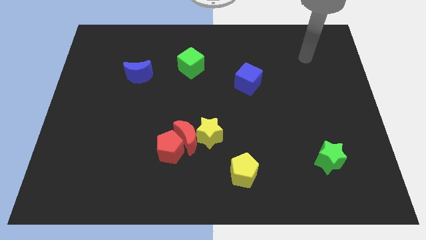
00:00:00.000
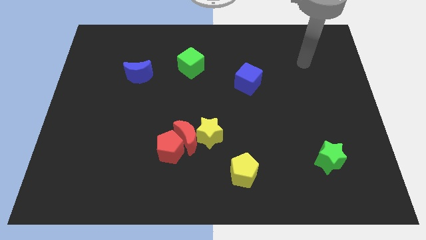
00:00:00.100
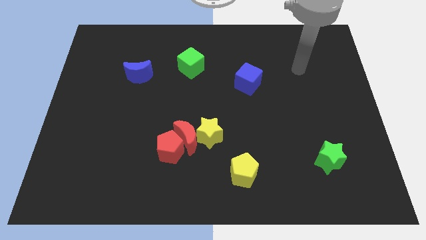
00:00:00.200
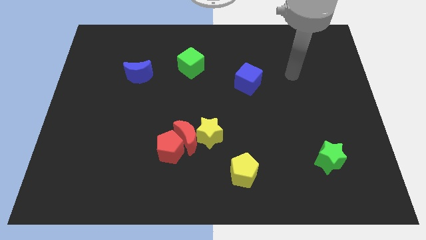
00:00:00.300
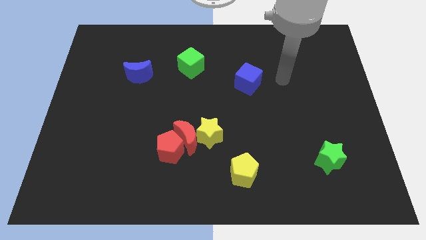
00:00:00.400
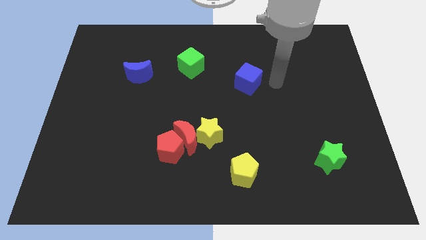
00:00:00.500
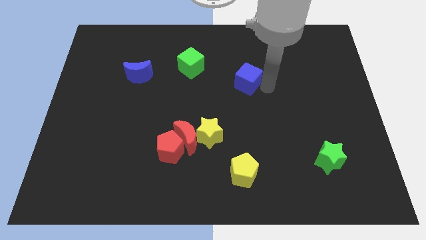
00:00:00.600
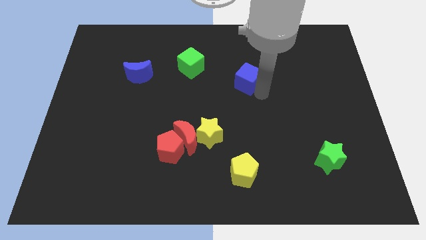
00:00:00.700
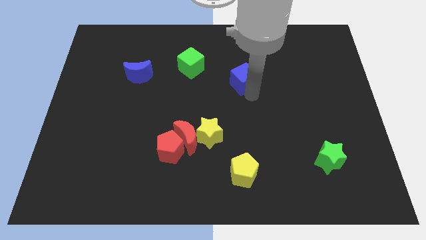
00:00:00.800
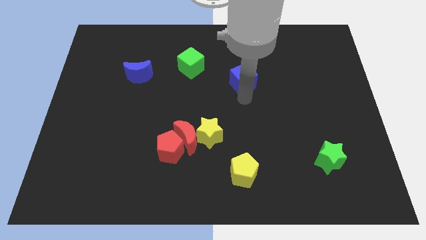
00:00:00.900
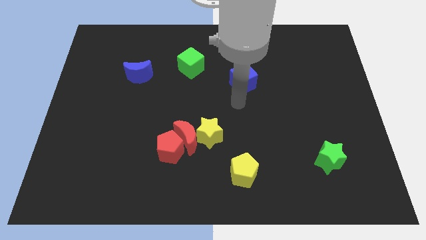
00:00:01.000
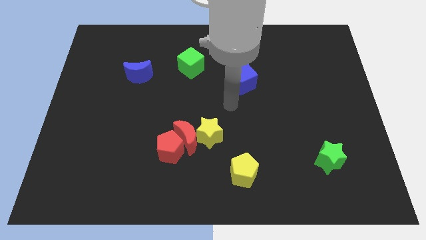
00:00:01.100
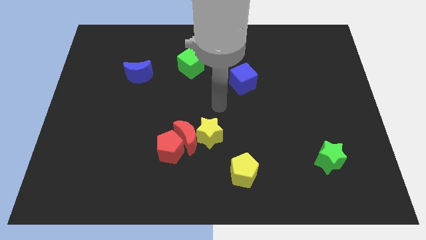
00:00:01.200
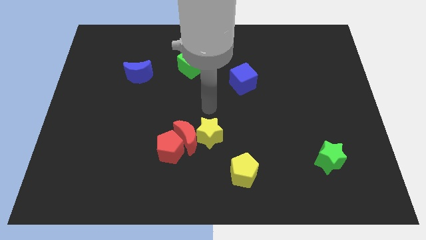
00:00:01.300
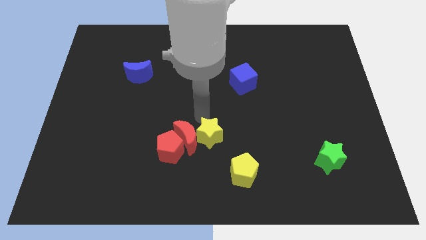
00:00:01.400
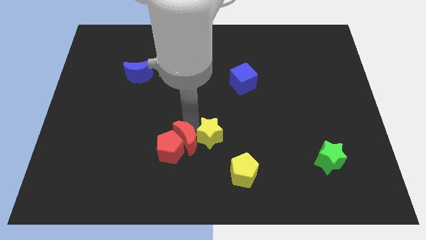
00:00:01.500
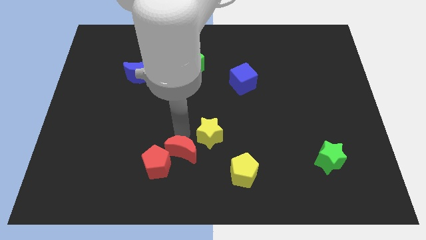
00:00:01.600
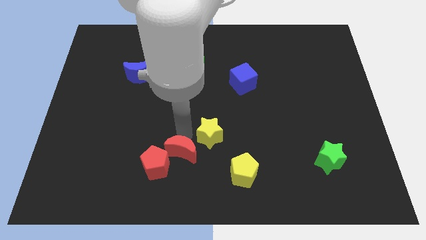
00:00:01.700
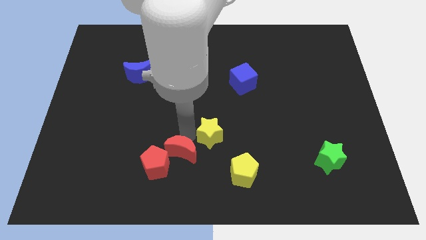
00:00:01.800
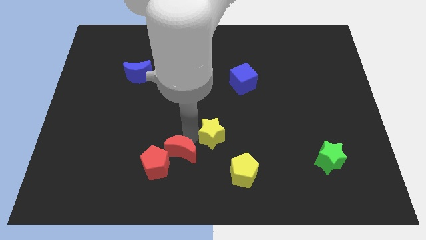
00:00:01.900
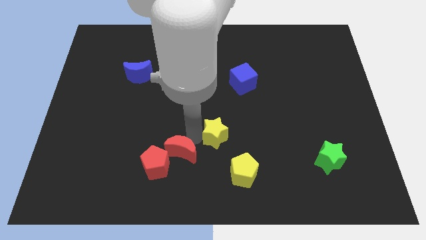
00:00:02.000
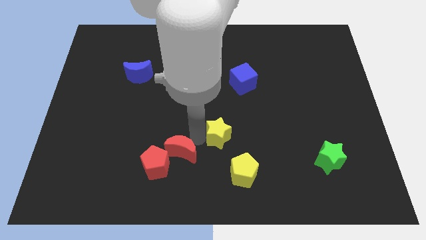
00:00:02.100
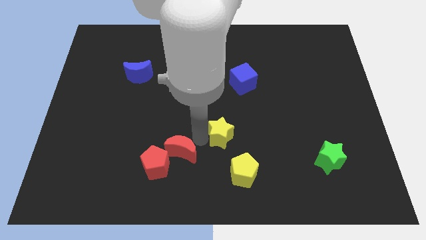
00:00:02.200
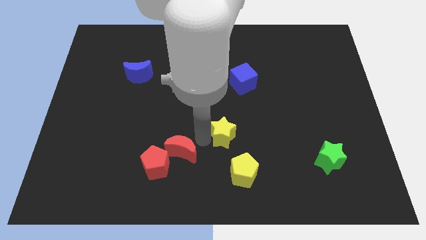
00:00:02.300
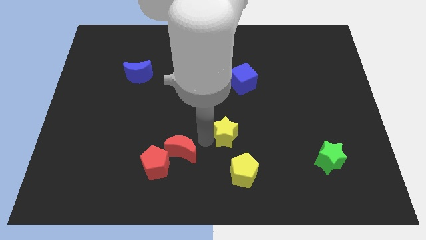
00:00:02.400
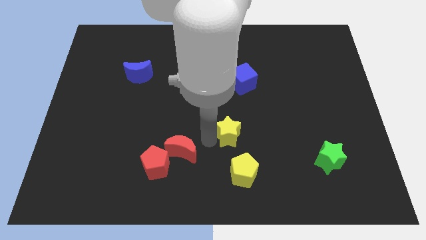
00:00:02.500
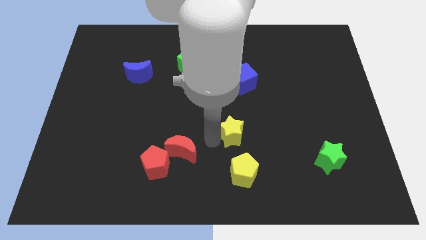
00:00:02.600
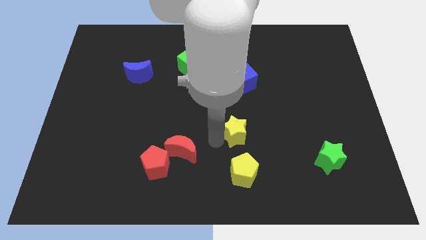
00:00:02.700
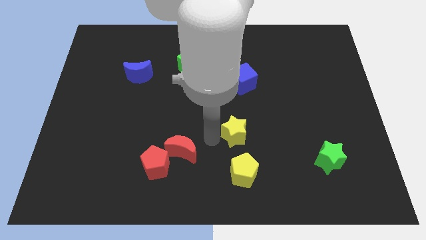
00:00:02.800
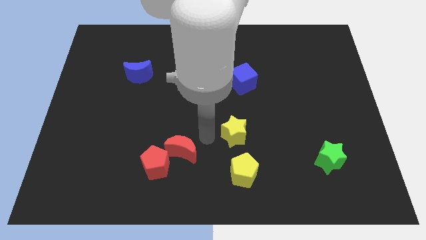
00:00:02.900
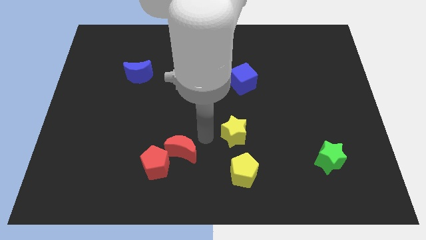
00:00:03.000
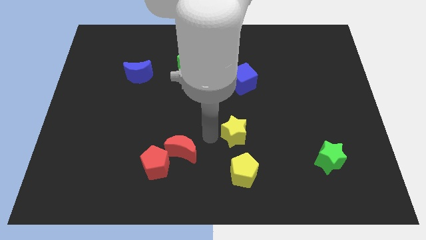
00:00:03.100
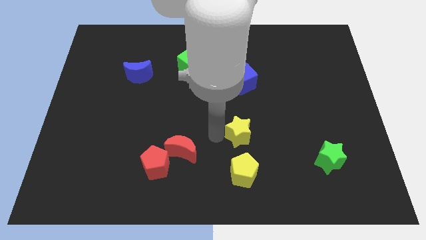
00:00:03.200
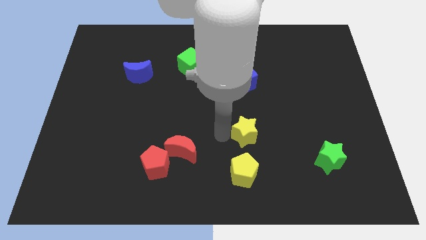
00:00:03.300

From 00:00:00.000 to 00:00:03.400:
slide the yellow star right slightly

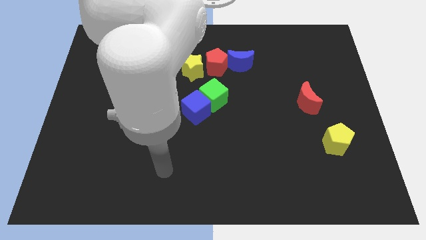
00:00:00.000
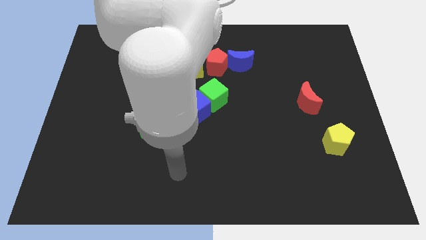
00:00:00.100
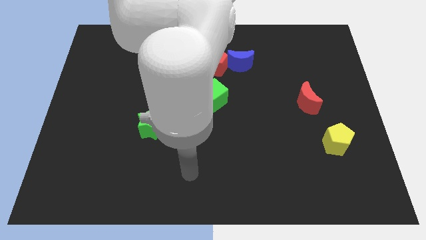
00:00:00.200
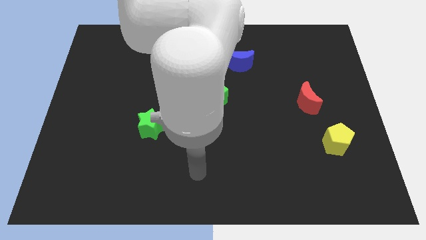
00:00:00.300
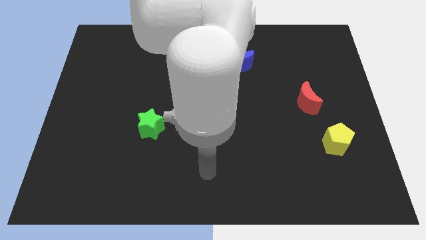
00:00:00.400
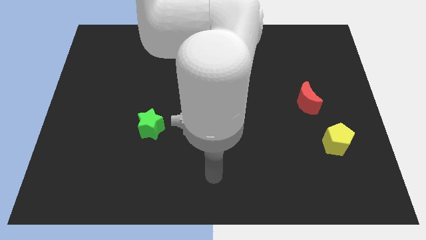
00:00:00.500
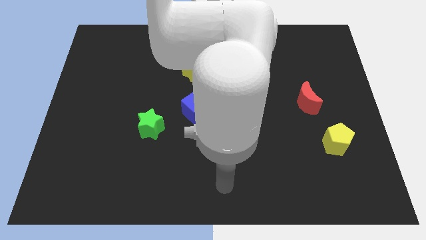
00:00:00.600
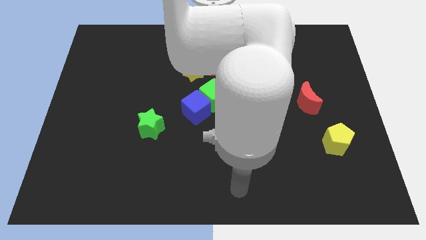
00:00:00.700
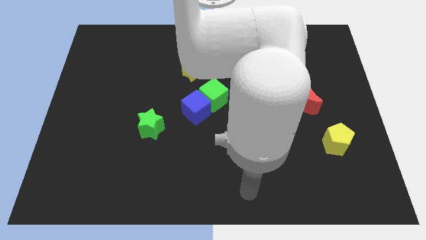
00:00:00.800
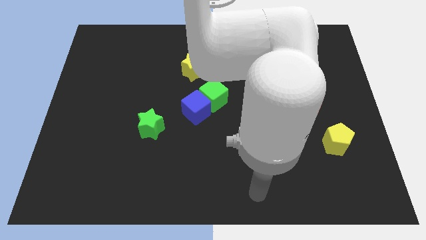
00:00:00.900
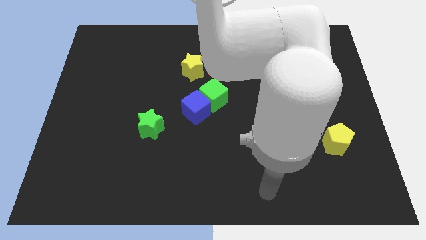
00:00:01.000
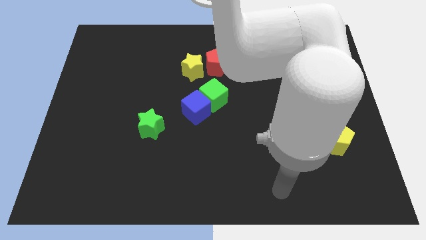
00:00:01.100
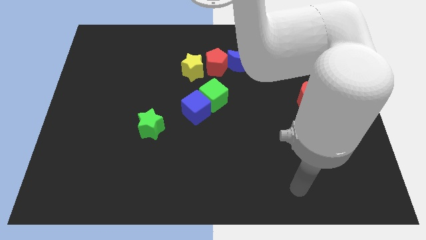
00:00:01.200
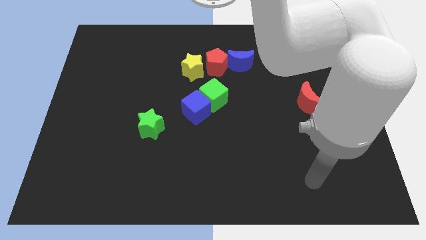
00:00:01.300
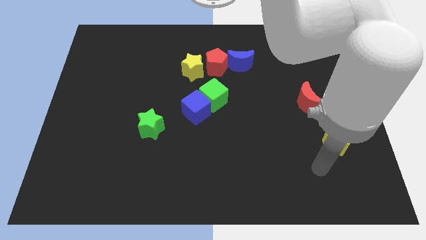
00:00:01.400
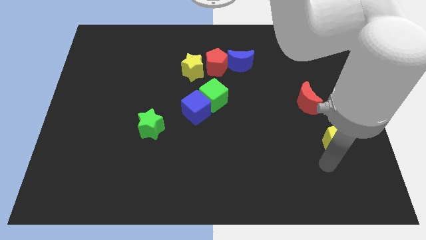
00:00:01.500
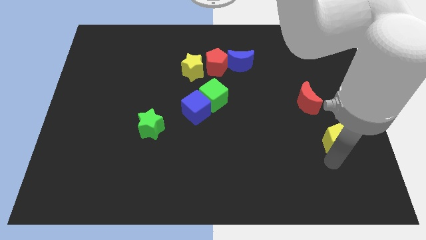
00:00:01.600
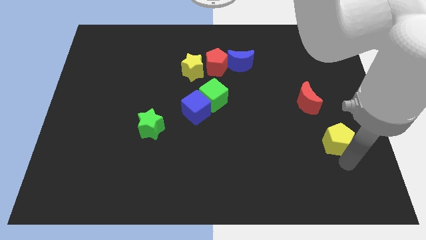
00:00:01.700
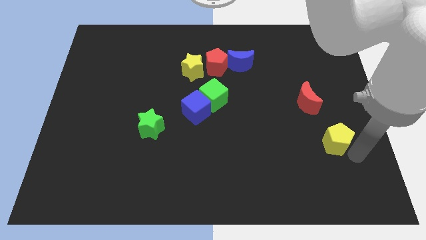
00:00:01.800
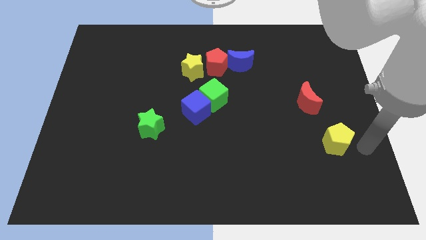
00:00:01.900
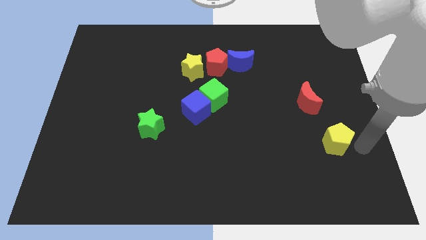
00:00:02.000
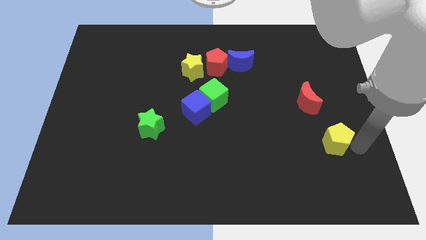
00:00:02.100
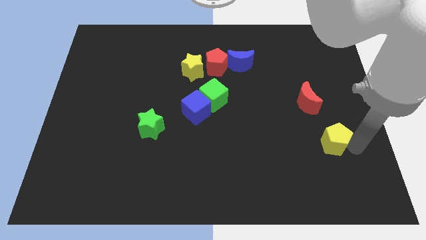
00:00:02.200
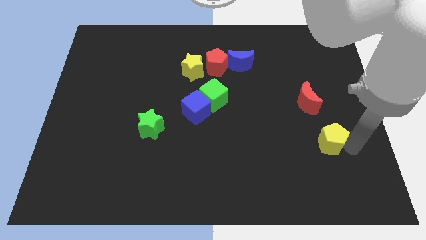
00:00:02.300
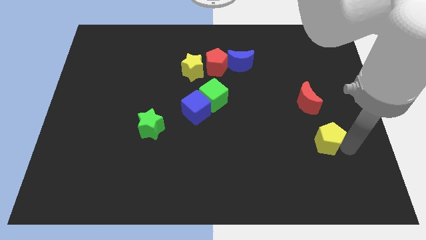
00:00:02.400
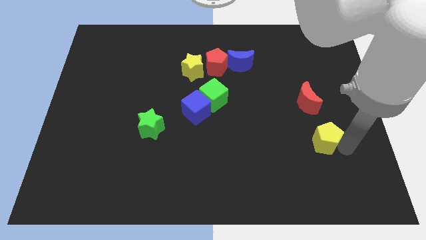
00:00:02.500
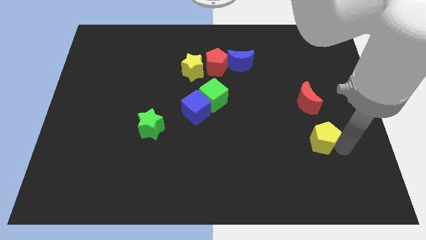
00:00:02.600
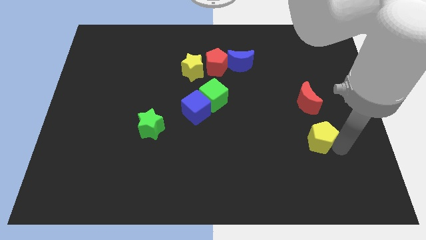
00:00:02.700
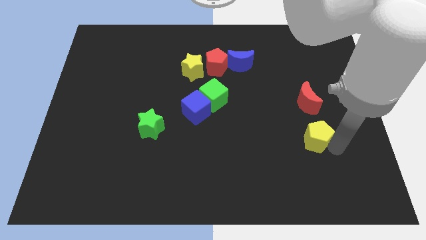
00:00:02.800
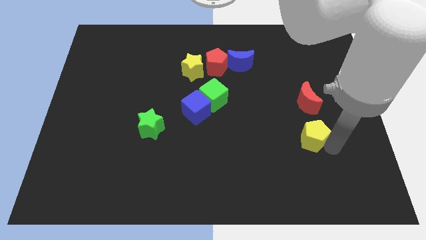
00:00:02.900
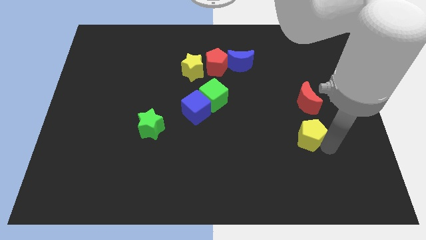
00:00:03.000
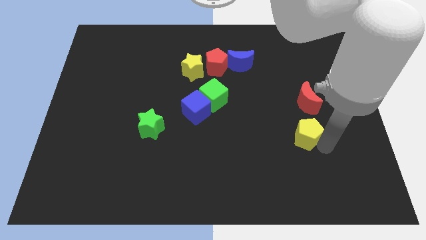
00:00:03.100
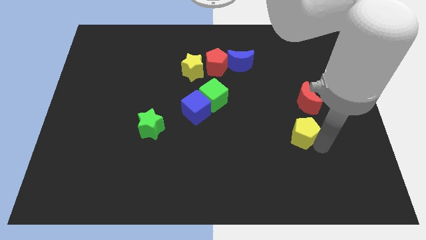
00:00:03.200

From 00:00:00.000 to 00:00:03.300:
push the yellow pentagon to the left somewhat

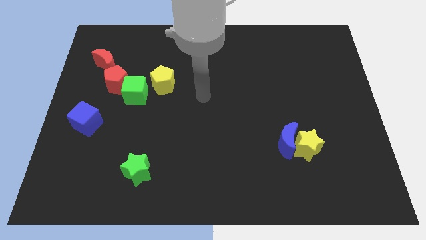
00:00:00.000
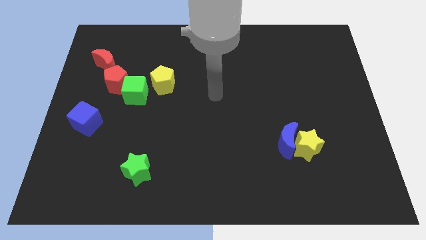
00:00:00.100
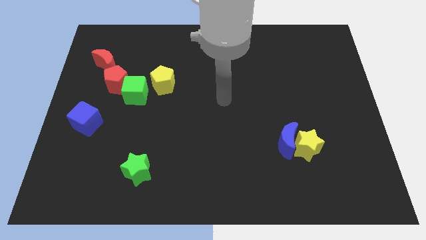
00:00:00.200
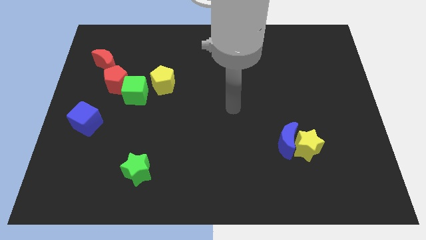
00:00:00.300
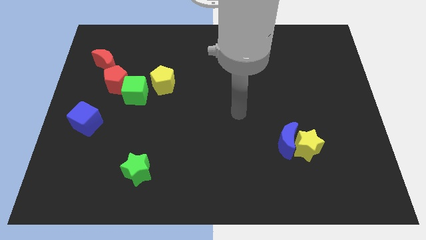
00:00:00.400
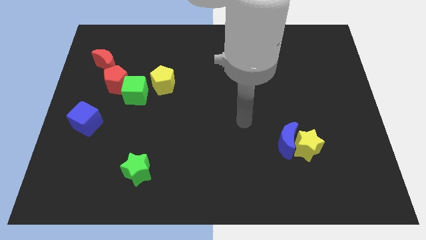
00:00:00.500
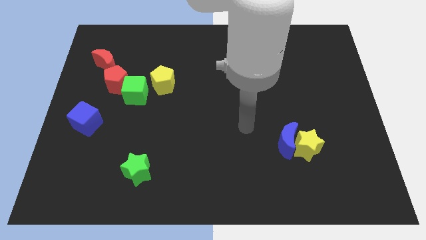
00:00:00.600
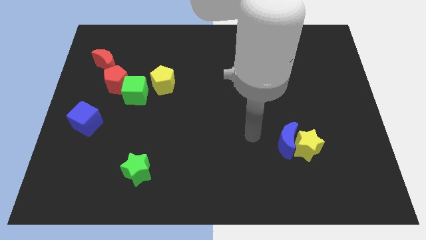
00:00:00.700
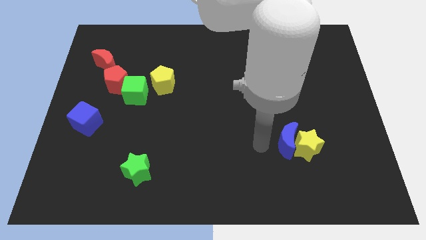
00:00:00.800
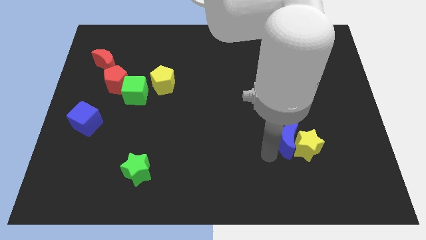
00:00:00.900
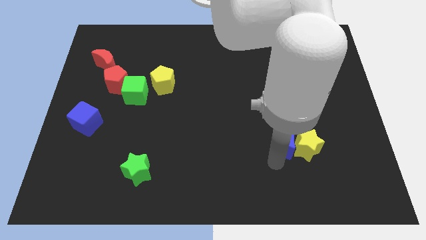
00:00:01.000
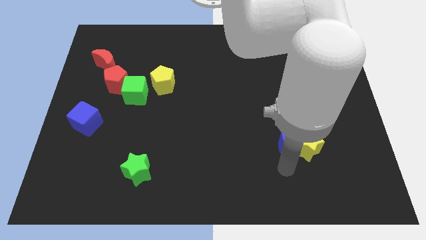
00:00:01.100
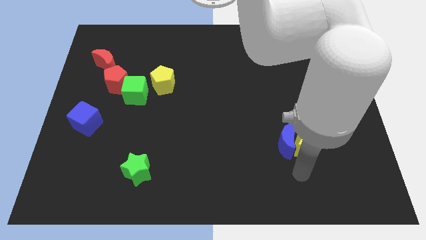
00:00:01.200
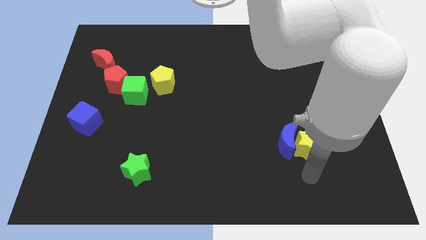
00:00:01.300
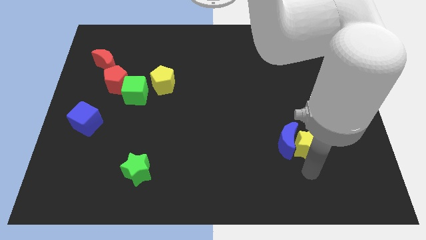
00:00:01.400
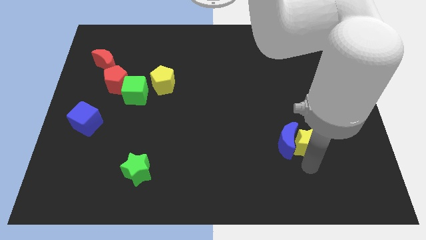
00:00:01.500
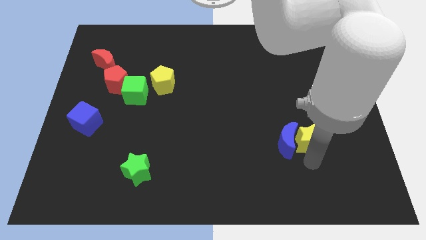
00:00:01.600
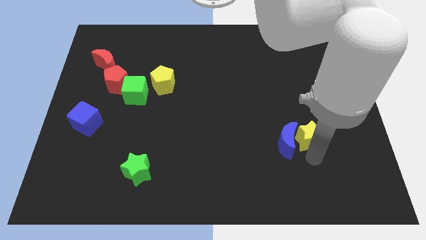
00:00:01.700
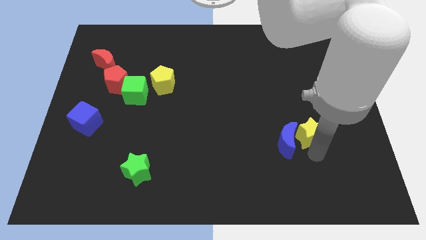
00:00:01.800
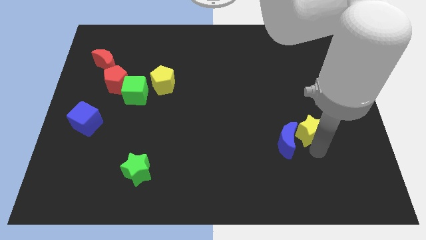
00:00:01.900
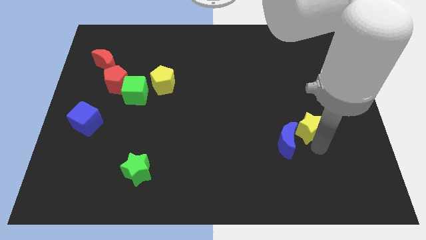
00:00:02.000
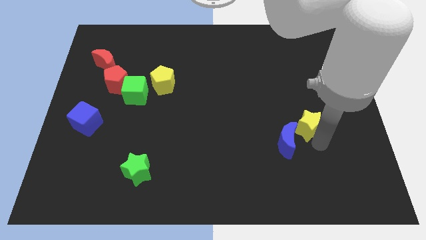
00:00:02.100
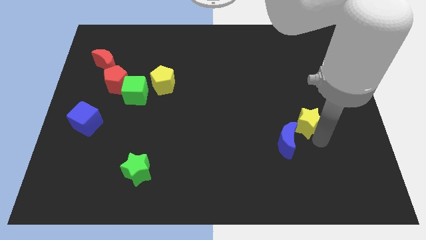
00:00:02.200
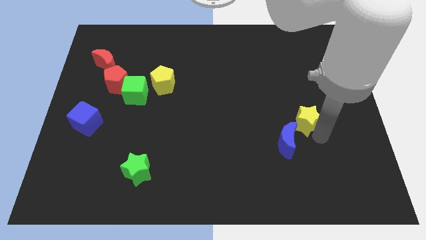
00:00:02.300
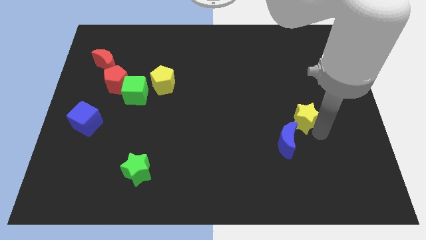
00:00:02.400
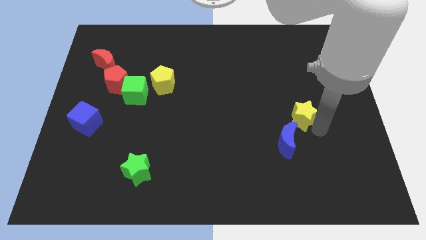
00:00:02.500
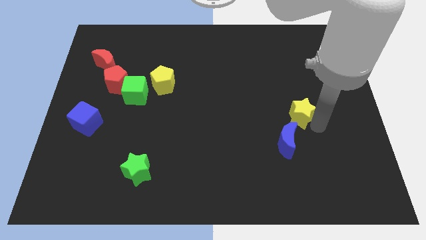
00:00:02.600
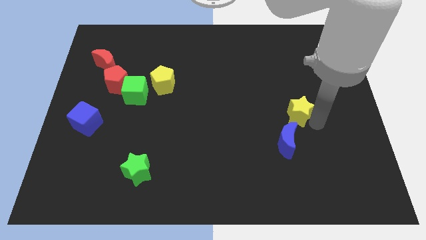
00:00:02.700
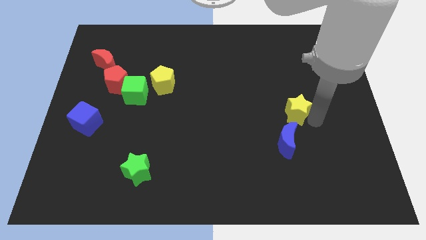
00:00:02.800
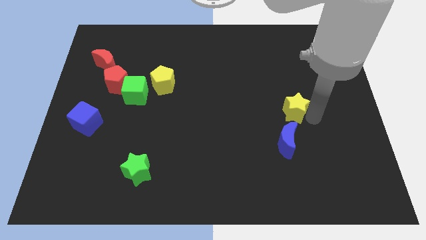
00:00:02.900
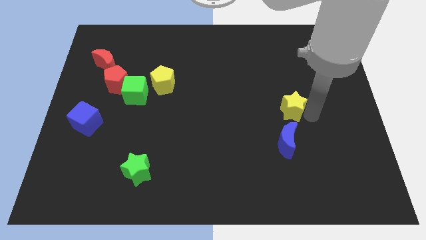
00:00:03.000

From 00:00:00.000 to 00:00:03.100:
slightly push the yellow star up and left
